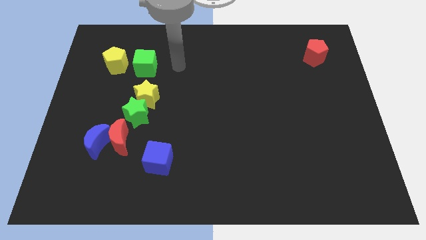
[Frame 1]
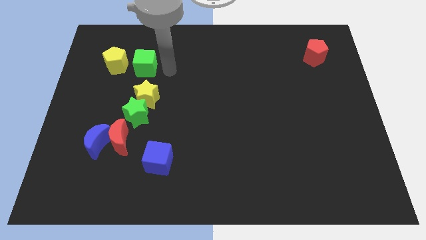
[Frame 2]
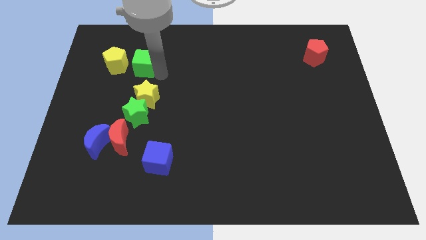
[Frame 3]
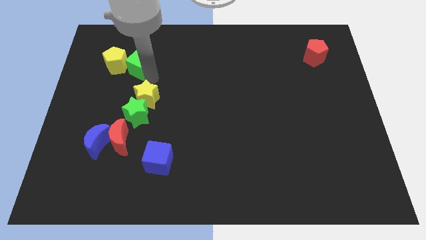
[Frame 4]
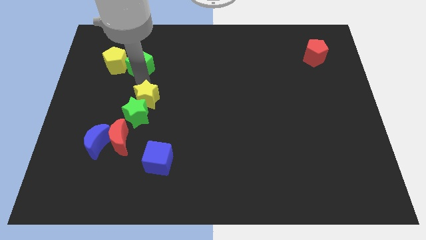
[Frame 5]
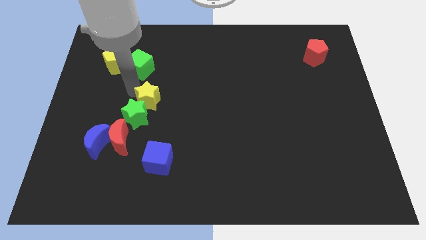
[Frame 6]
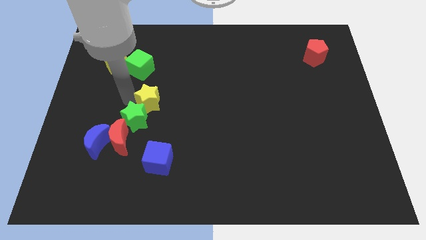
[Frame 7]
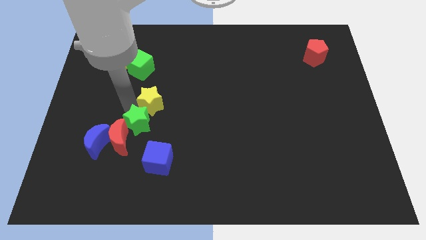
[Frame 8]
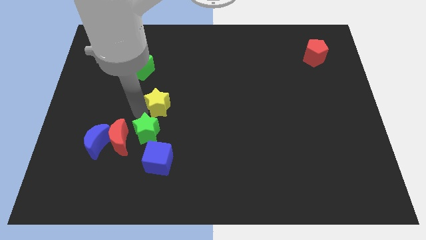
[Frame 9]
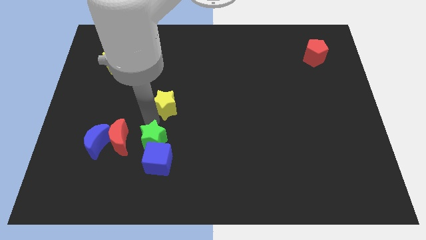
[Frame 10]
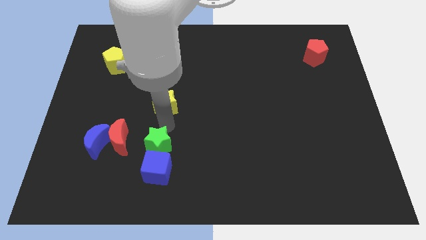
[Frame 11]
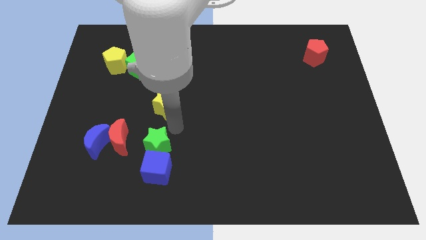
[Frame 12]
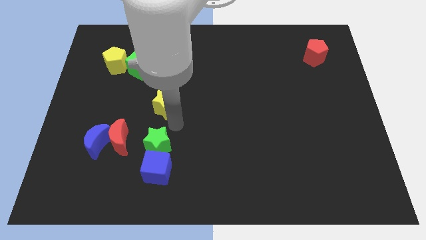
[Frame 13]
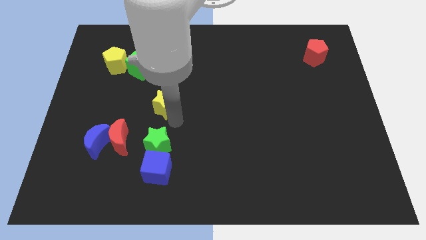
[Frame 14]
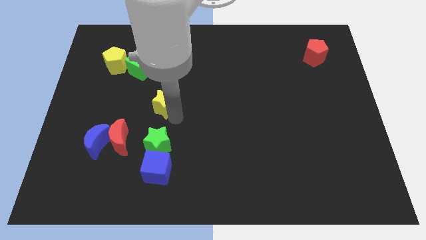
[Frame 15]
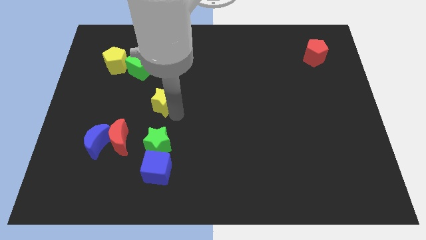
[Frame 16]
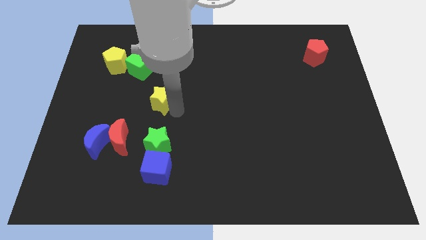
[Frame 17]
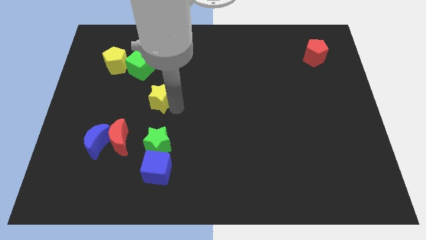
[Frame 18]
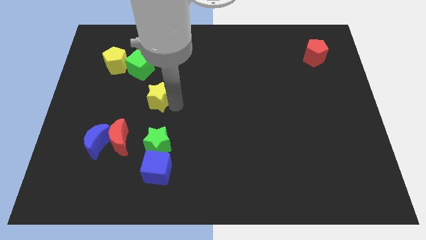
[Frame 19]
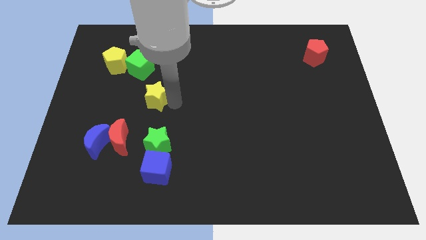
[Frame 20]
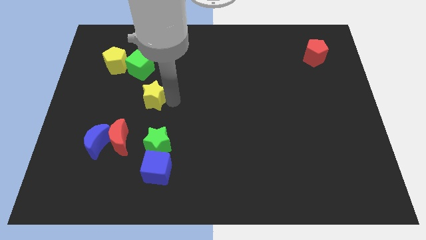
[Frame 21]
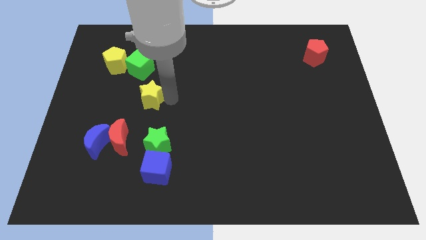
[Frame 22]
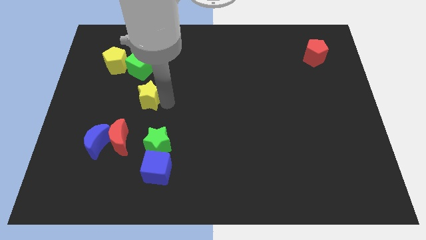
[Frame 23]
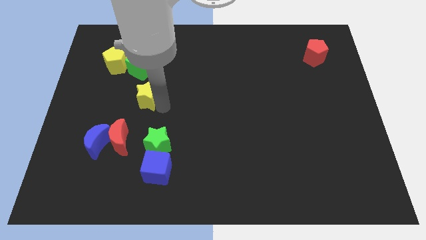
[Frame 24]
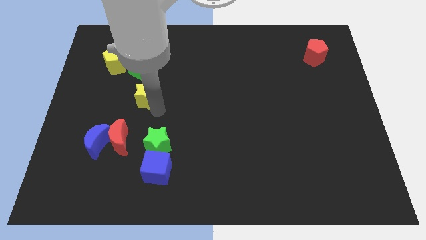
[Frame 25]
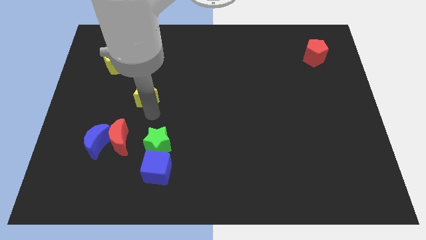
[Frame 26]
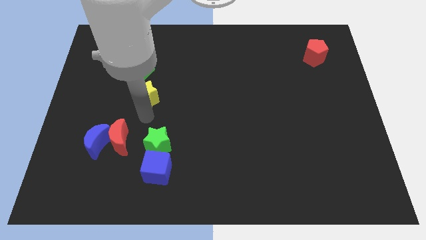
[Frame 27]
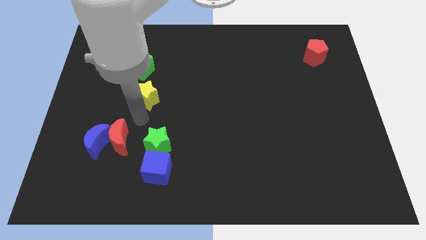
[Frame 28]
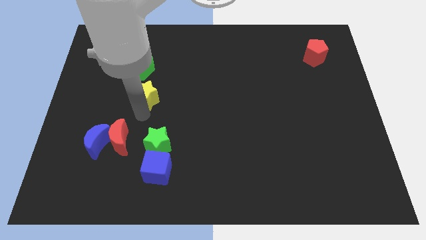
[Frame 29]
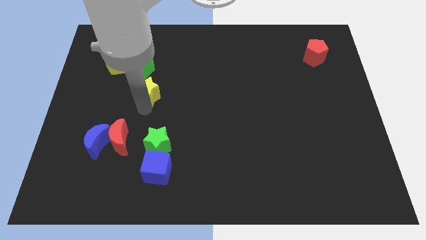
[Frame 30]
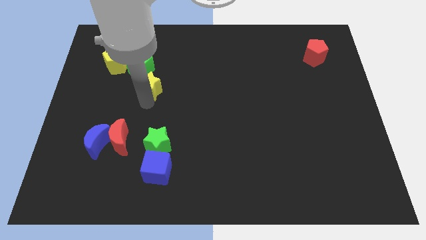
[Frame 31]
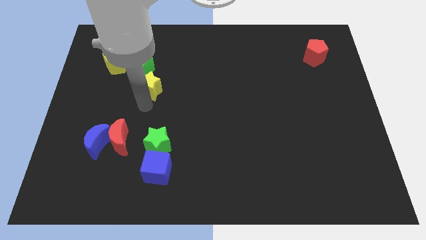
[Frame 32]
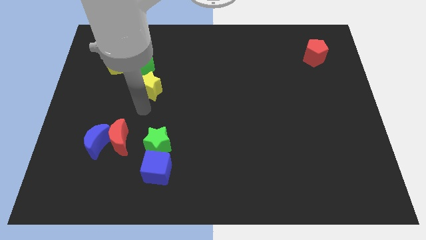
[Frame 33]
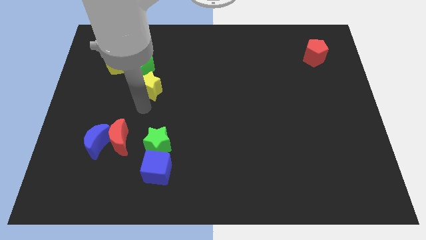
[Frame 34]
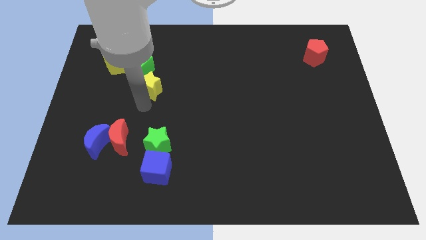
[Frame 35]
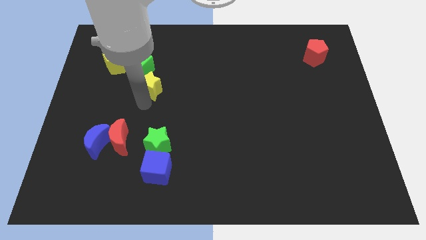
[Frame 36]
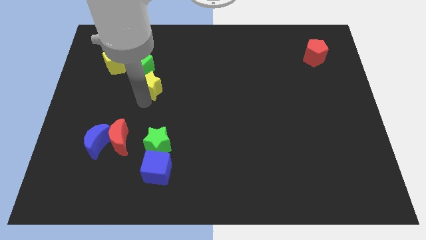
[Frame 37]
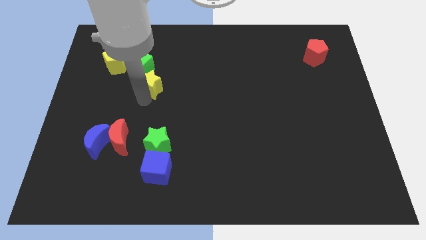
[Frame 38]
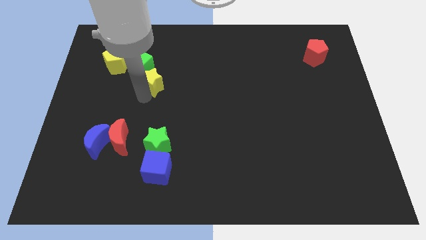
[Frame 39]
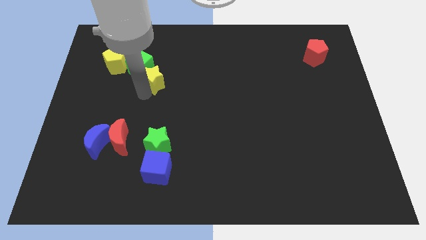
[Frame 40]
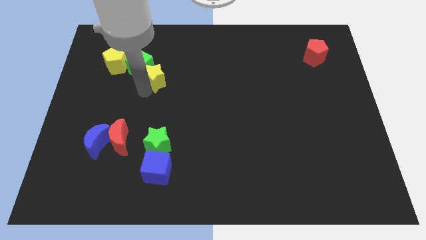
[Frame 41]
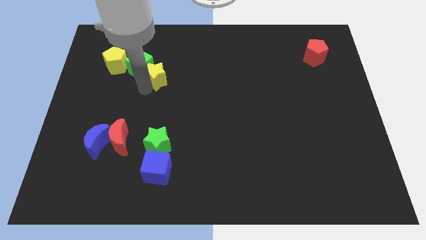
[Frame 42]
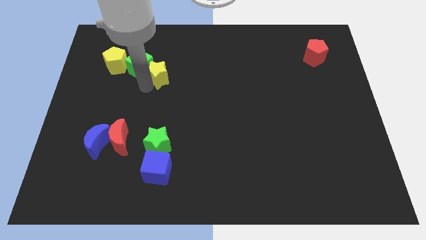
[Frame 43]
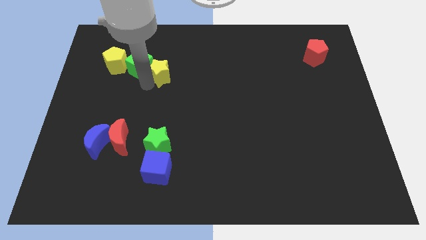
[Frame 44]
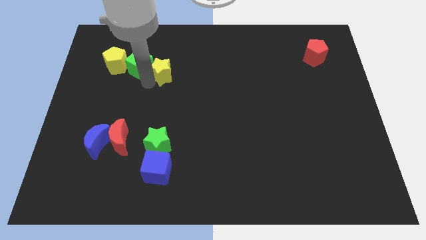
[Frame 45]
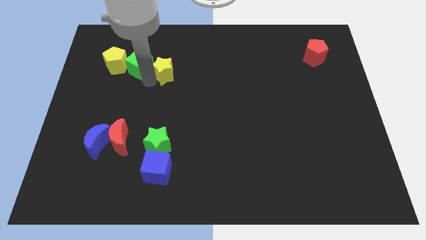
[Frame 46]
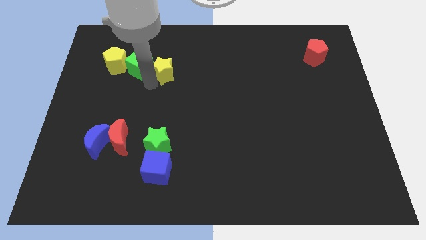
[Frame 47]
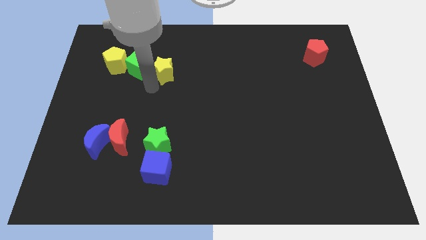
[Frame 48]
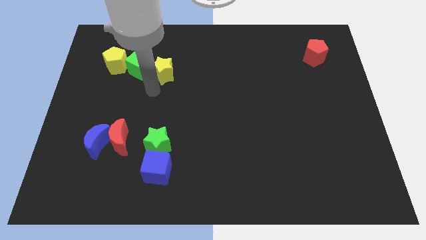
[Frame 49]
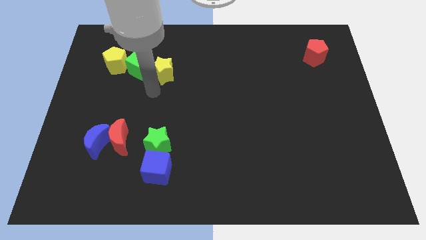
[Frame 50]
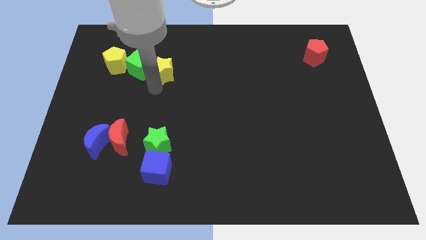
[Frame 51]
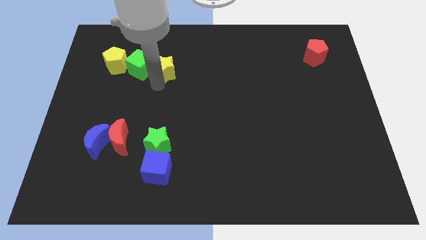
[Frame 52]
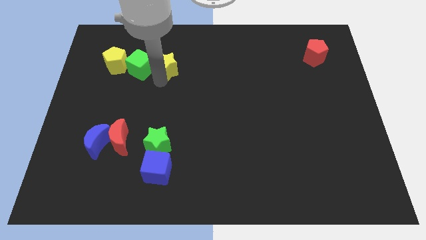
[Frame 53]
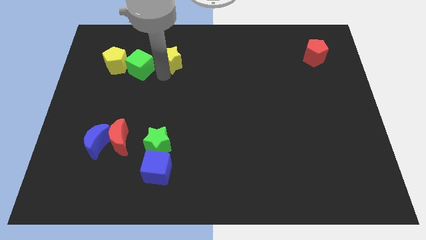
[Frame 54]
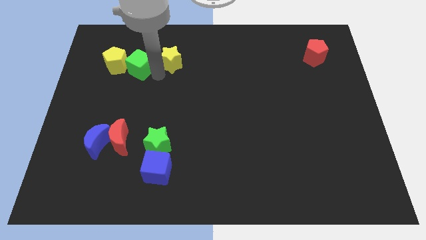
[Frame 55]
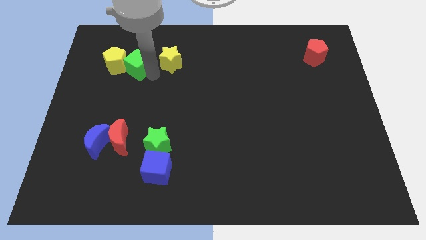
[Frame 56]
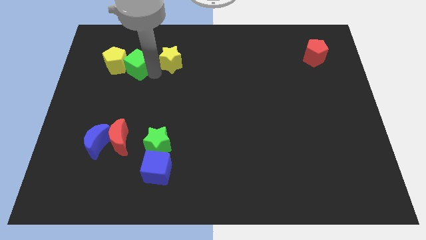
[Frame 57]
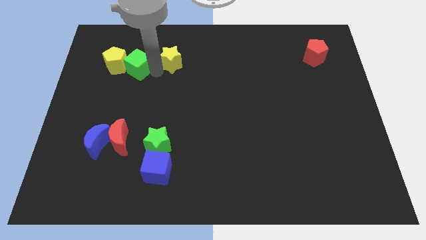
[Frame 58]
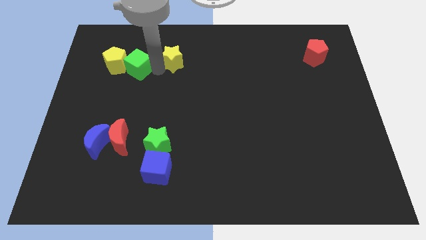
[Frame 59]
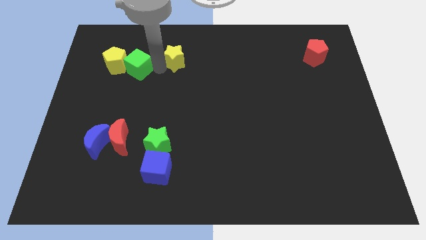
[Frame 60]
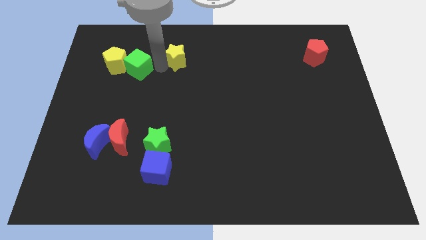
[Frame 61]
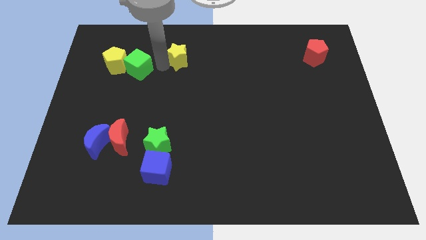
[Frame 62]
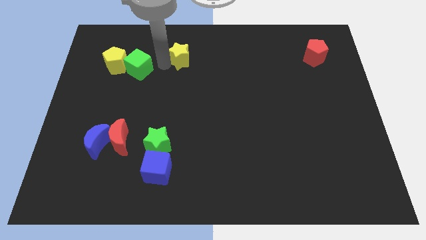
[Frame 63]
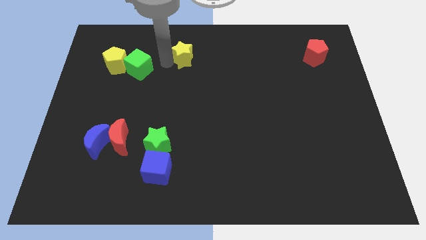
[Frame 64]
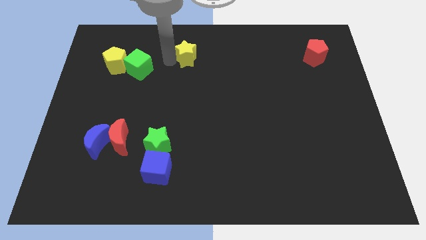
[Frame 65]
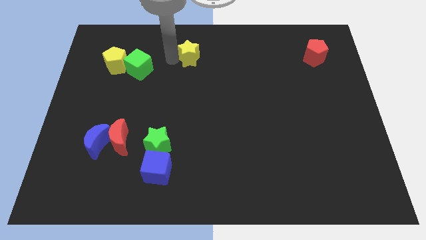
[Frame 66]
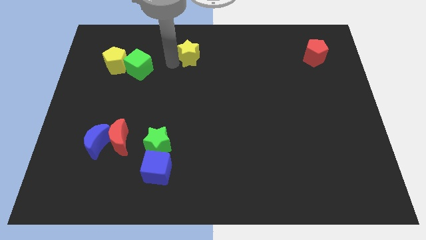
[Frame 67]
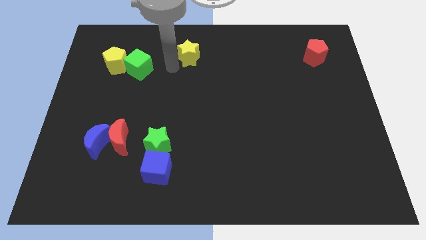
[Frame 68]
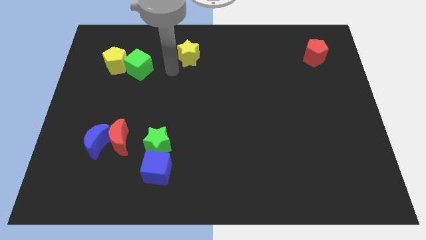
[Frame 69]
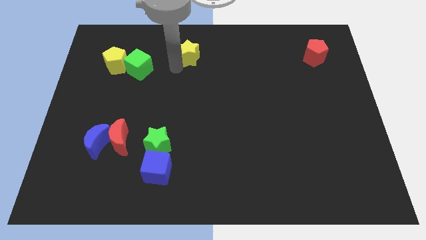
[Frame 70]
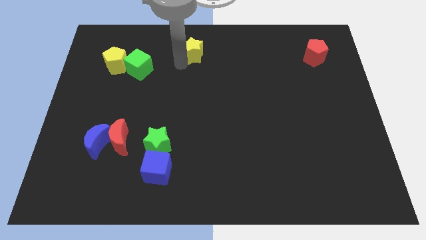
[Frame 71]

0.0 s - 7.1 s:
push the yellow star to the top
